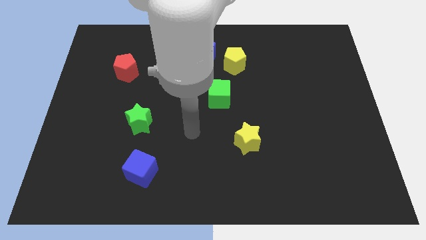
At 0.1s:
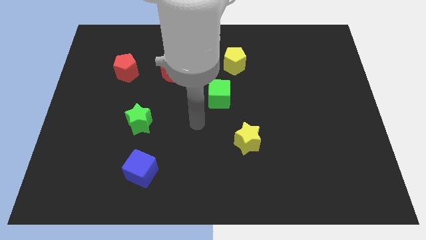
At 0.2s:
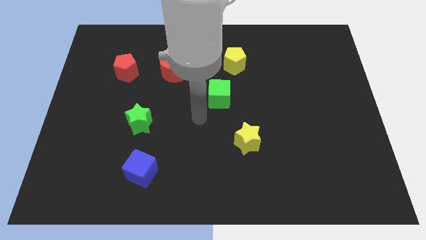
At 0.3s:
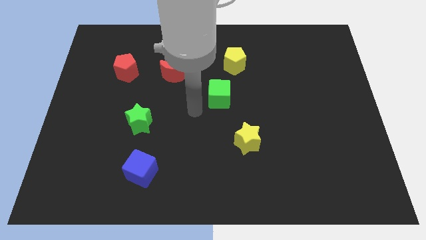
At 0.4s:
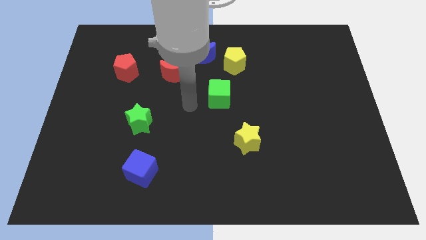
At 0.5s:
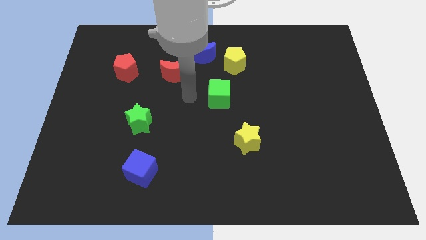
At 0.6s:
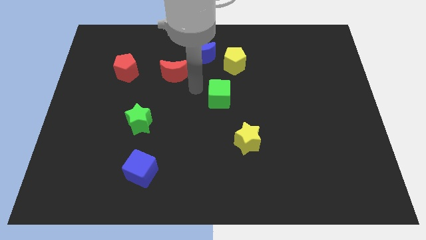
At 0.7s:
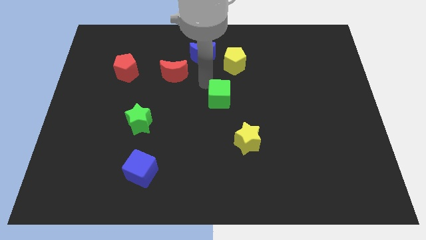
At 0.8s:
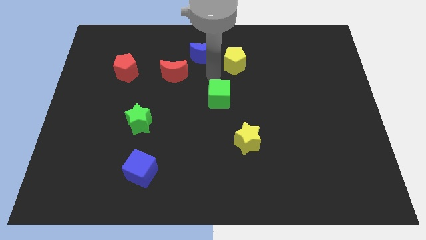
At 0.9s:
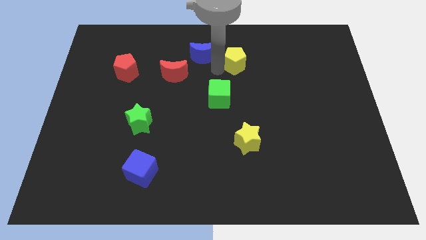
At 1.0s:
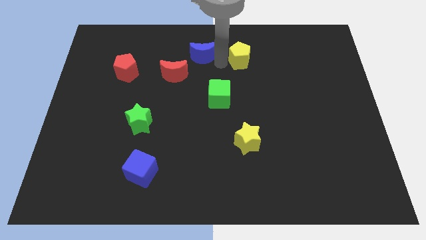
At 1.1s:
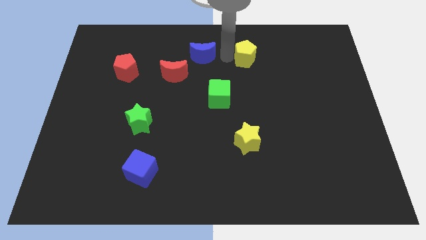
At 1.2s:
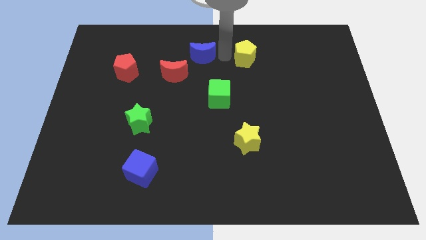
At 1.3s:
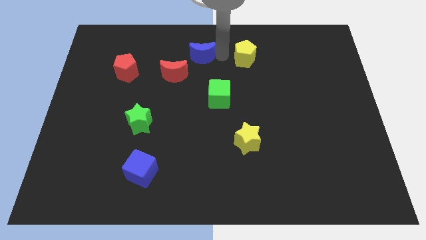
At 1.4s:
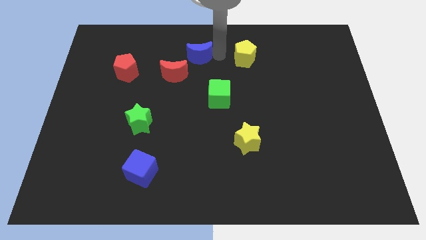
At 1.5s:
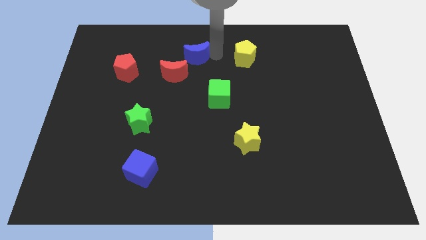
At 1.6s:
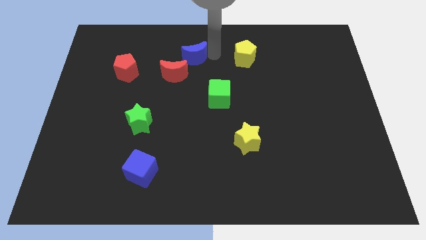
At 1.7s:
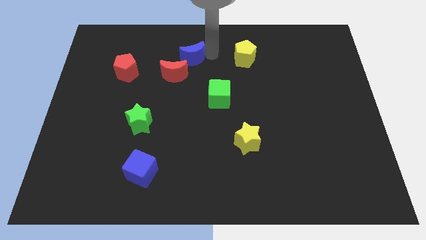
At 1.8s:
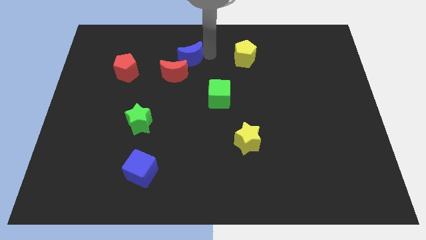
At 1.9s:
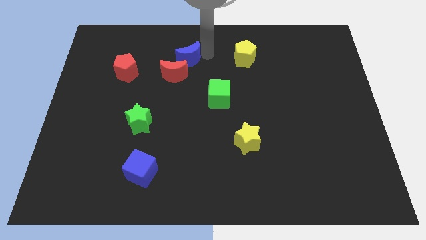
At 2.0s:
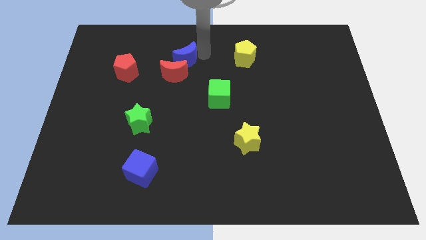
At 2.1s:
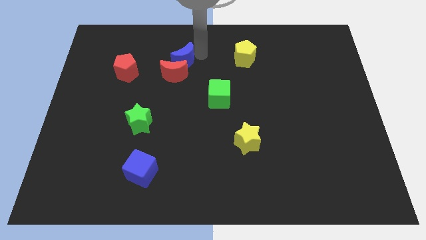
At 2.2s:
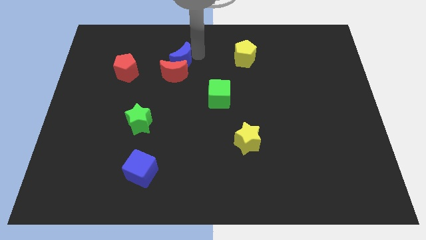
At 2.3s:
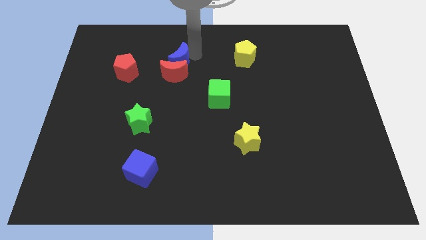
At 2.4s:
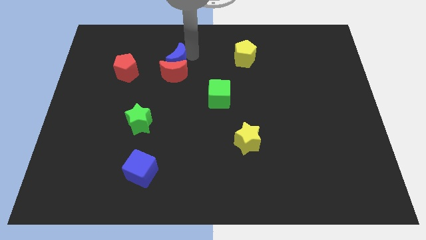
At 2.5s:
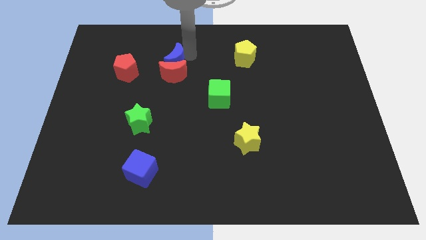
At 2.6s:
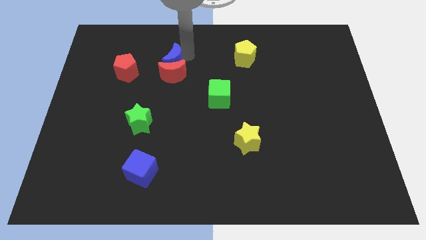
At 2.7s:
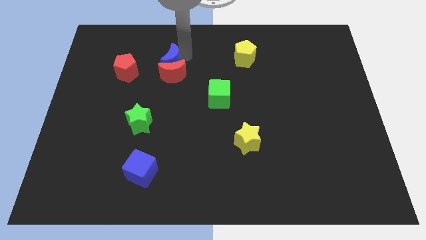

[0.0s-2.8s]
push the blue moon somewhat diagonally down and left

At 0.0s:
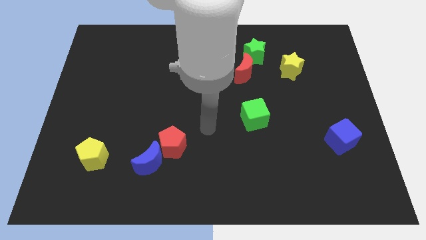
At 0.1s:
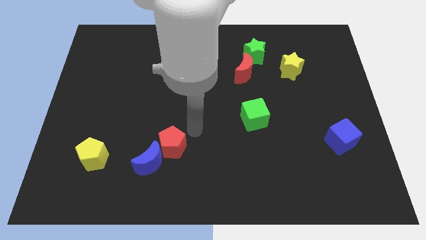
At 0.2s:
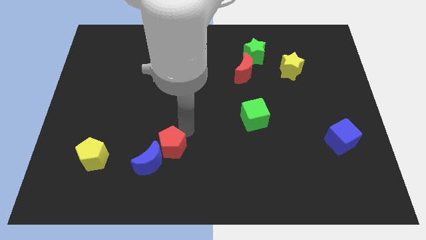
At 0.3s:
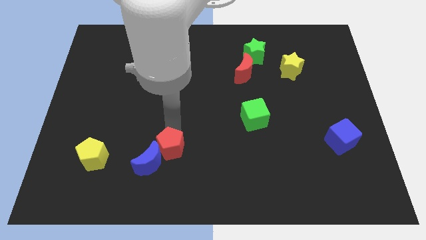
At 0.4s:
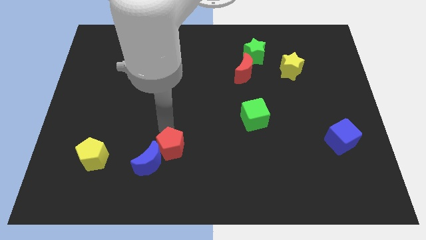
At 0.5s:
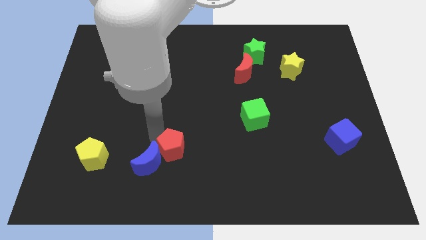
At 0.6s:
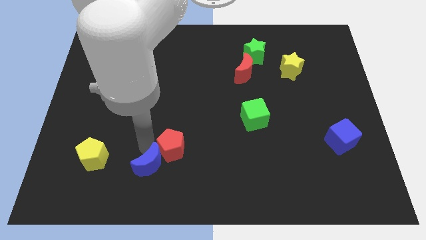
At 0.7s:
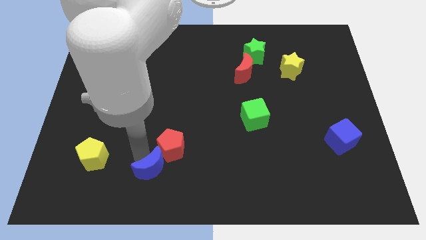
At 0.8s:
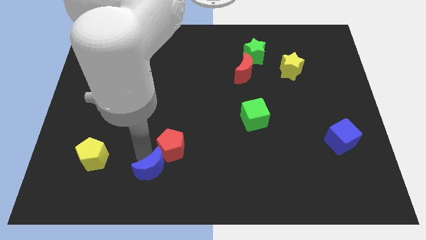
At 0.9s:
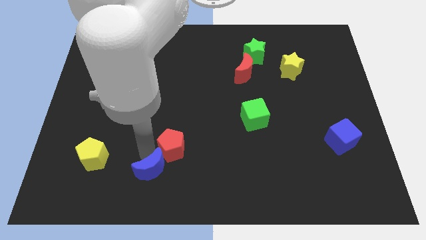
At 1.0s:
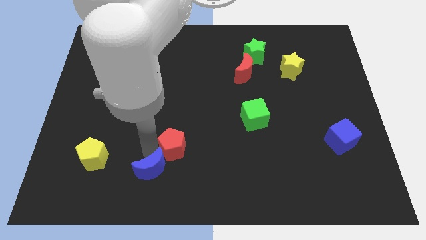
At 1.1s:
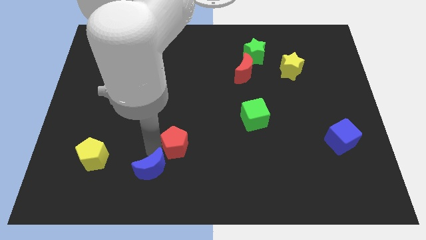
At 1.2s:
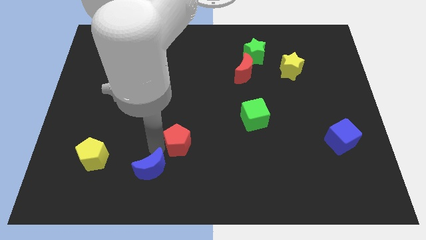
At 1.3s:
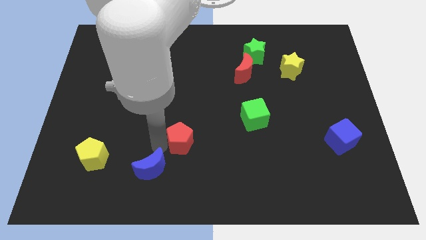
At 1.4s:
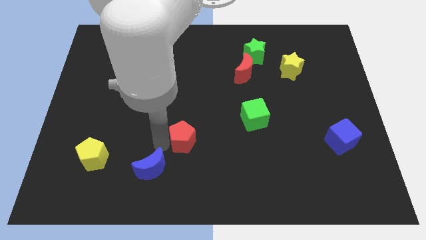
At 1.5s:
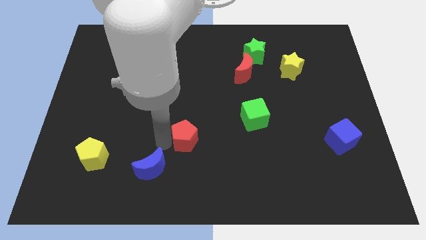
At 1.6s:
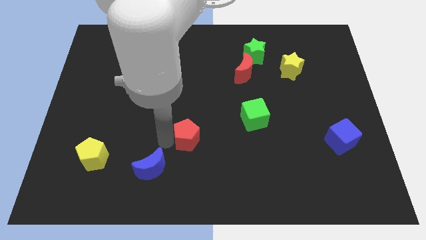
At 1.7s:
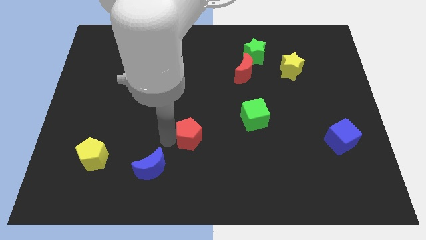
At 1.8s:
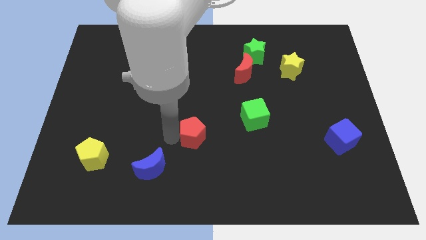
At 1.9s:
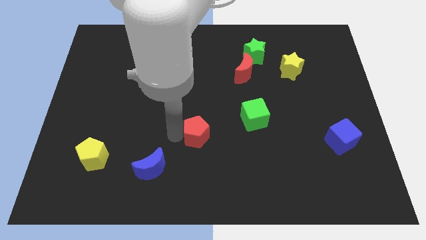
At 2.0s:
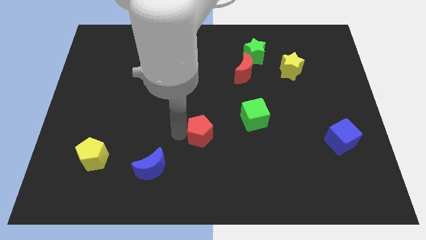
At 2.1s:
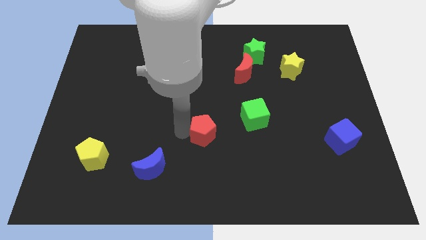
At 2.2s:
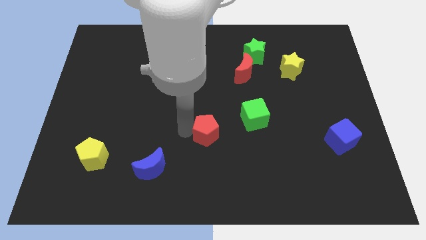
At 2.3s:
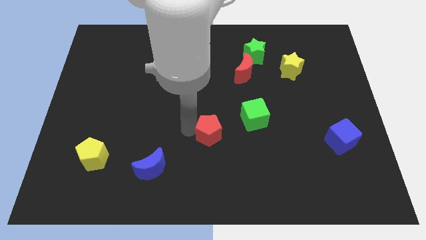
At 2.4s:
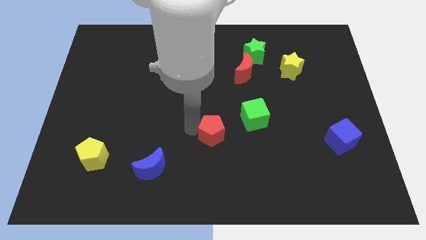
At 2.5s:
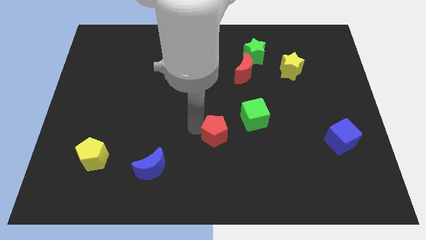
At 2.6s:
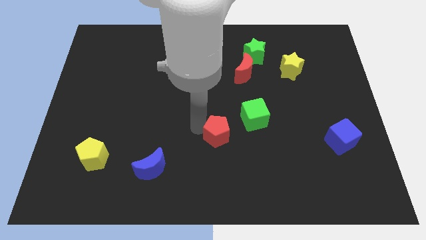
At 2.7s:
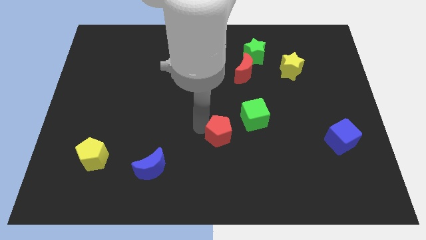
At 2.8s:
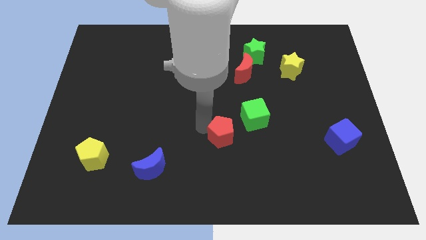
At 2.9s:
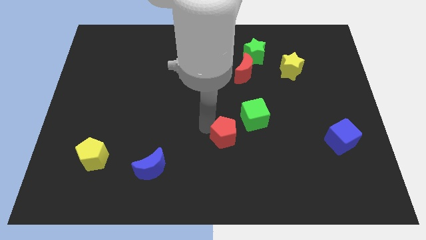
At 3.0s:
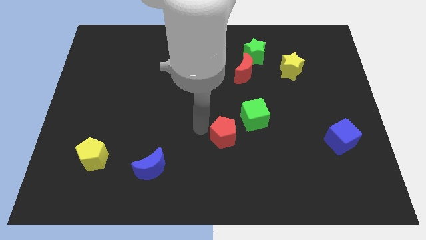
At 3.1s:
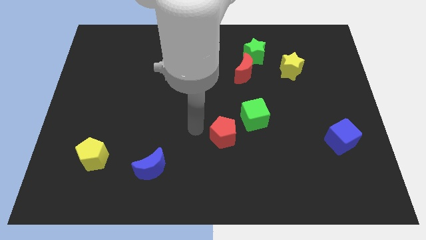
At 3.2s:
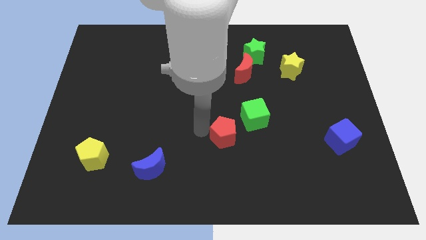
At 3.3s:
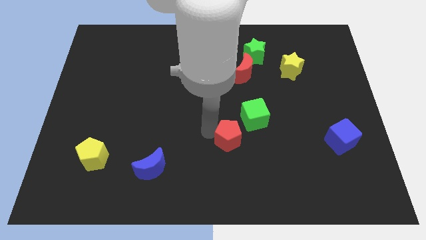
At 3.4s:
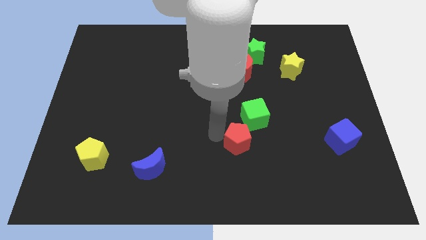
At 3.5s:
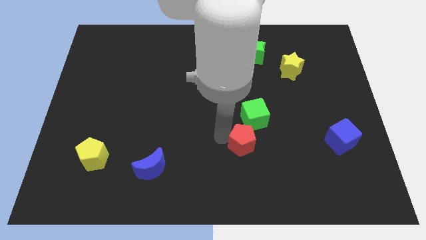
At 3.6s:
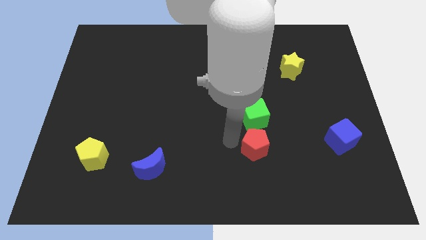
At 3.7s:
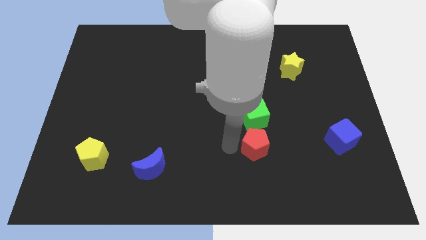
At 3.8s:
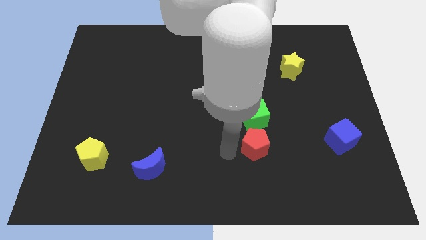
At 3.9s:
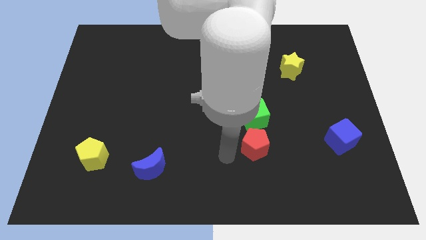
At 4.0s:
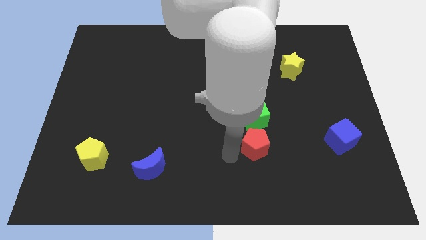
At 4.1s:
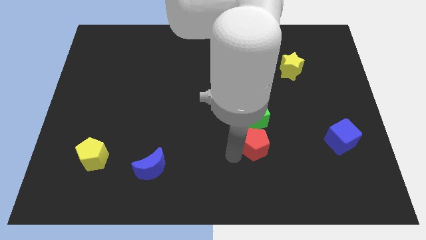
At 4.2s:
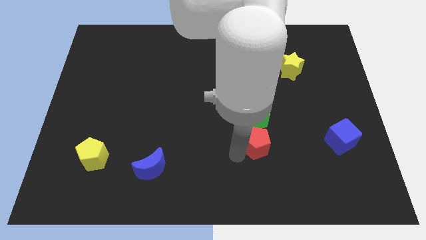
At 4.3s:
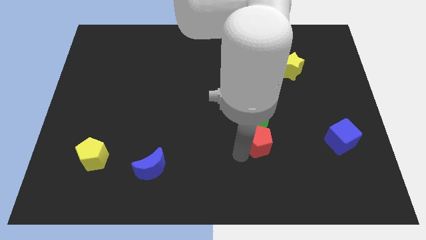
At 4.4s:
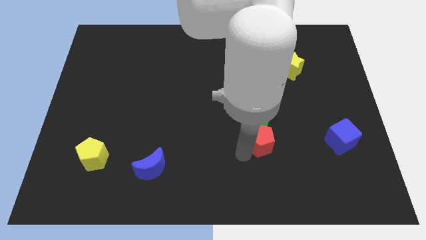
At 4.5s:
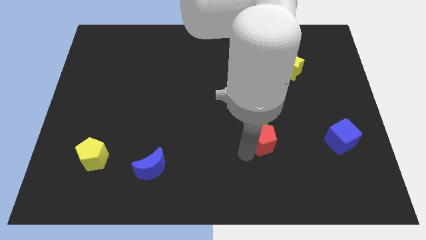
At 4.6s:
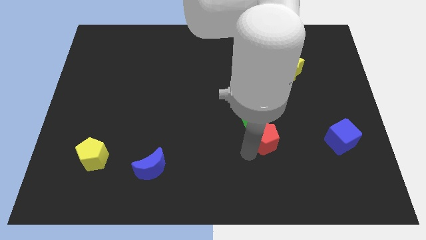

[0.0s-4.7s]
push the red pentagon to the right

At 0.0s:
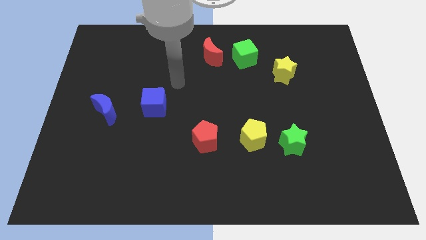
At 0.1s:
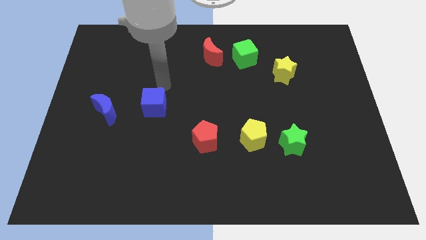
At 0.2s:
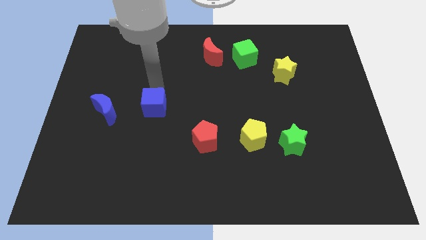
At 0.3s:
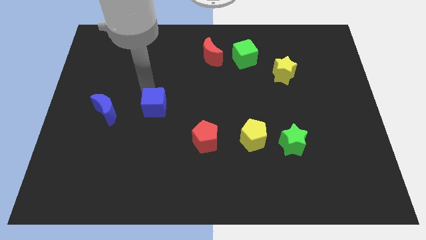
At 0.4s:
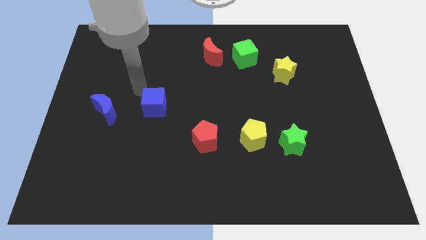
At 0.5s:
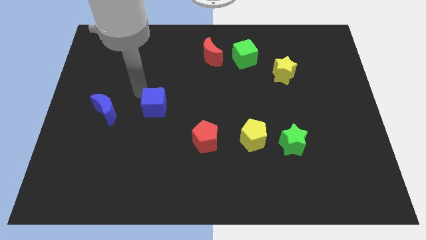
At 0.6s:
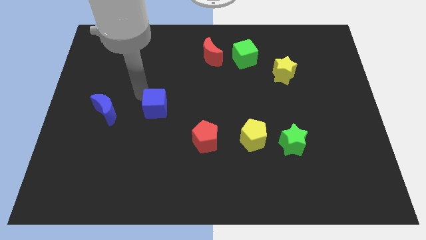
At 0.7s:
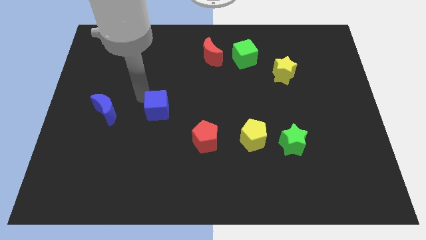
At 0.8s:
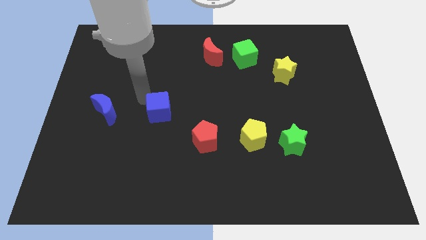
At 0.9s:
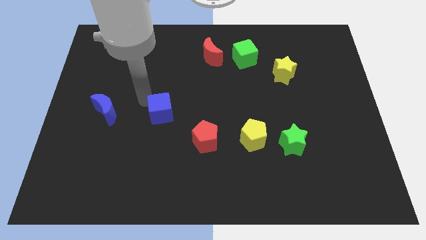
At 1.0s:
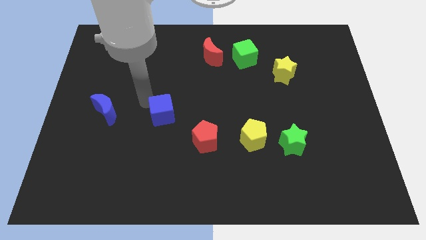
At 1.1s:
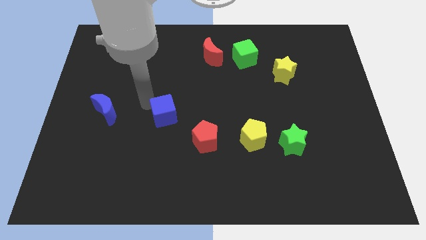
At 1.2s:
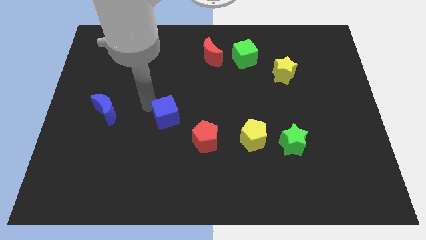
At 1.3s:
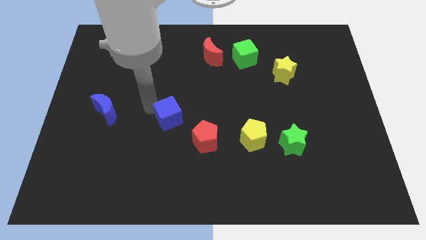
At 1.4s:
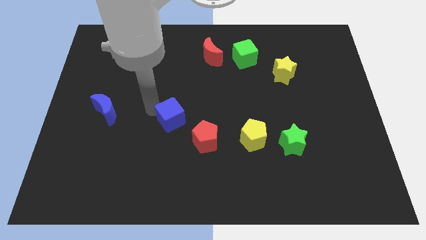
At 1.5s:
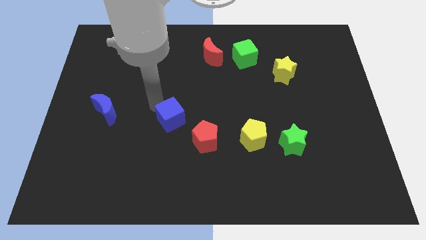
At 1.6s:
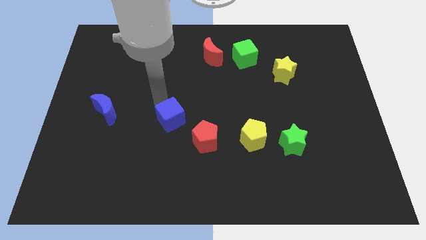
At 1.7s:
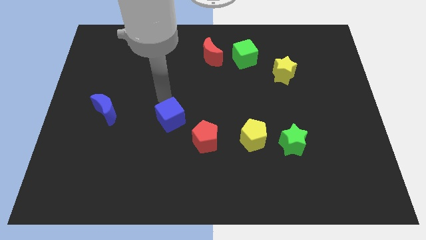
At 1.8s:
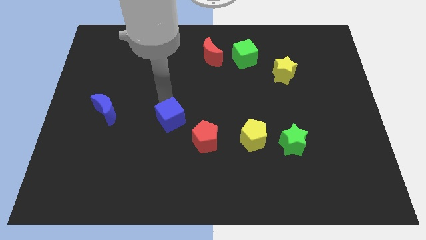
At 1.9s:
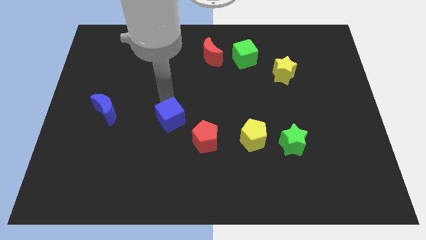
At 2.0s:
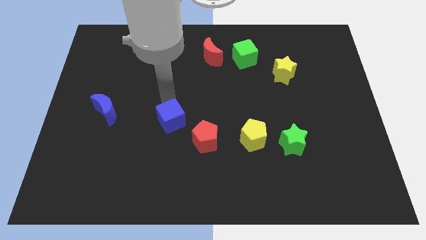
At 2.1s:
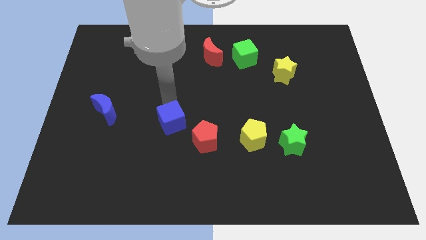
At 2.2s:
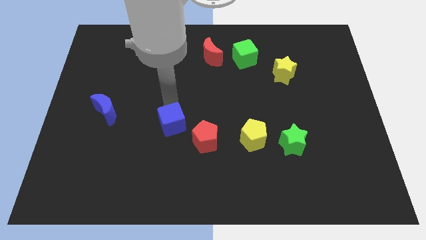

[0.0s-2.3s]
slightly push the blue cube down and right
